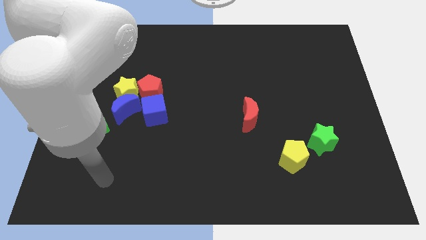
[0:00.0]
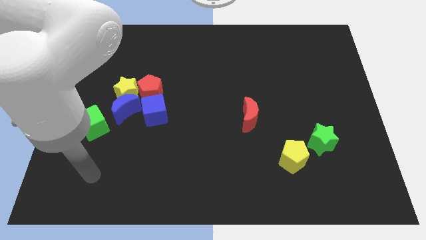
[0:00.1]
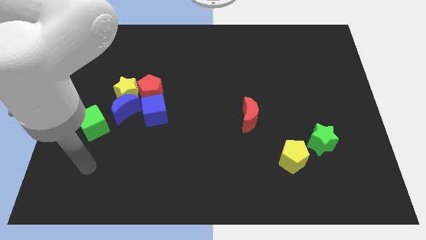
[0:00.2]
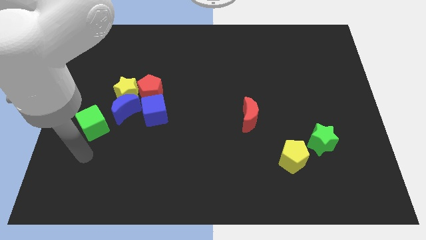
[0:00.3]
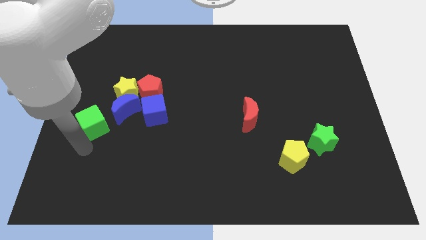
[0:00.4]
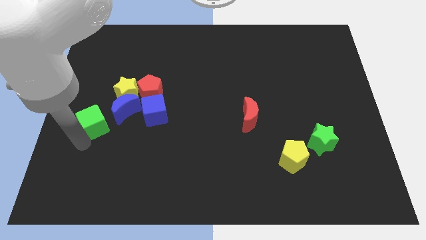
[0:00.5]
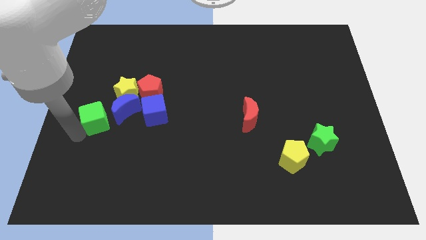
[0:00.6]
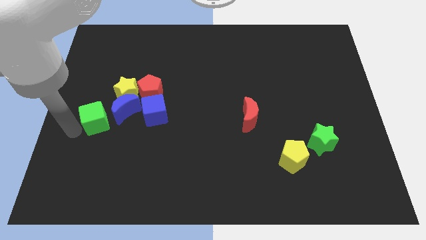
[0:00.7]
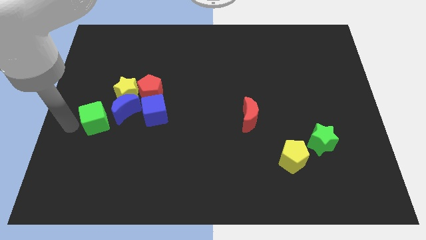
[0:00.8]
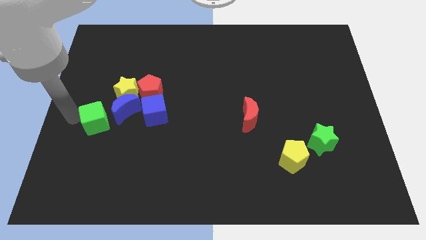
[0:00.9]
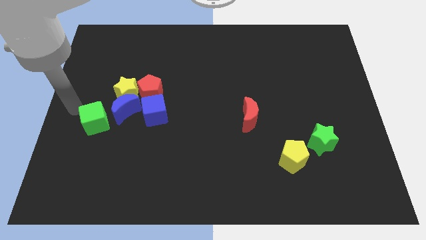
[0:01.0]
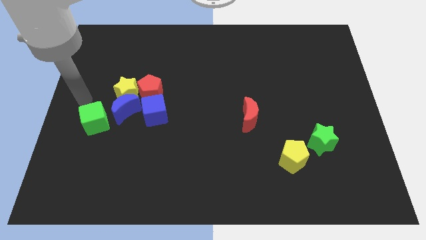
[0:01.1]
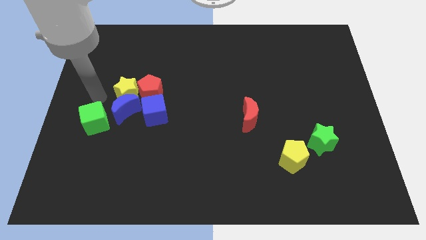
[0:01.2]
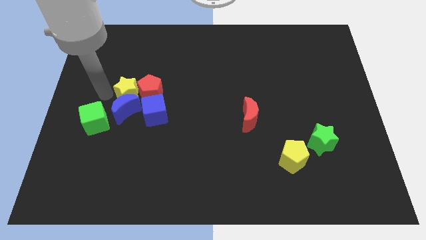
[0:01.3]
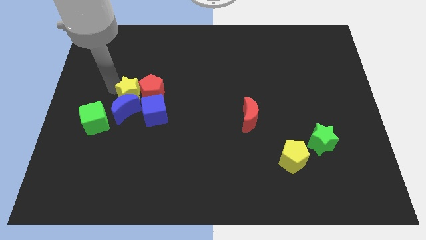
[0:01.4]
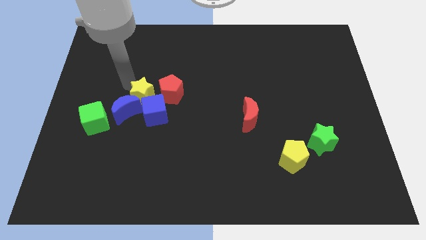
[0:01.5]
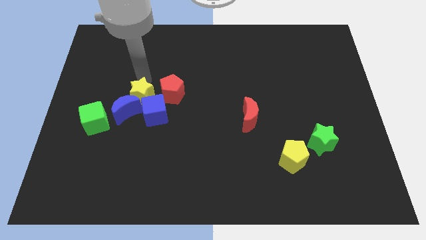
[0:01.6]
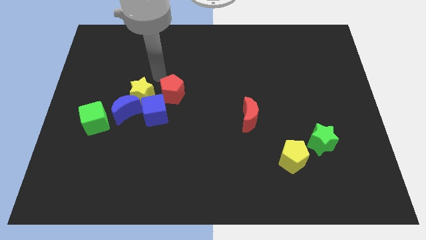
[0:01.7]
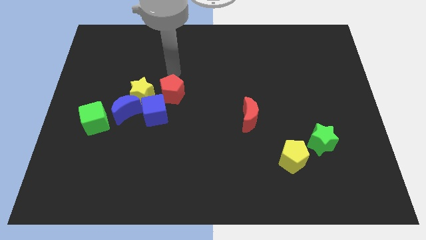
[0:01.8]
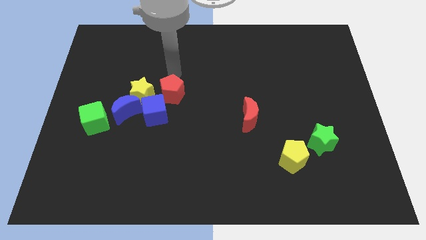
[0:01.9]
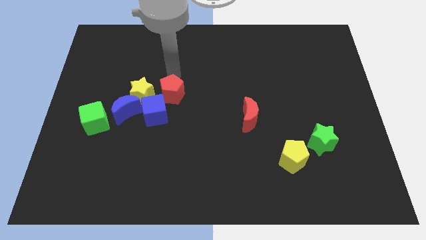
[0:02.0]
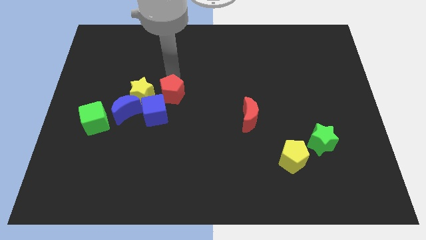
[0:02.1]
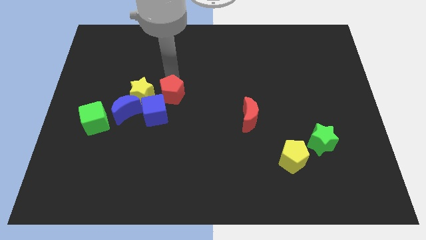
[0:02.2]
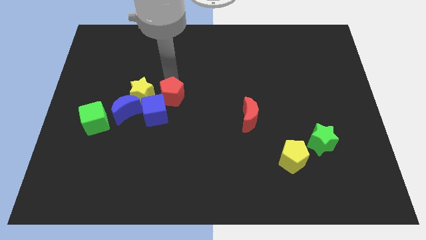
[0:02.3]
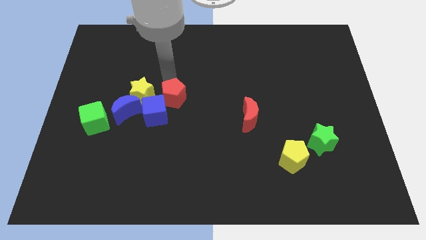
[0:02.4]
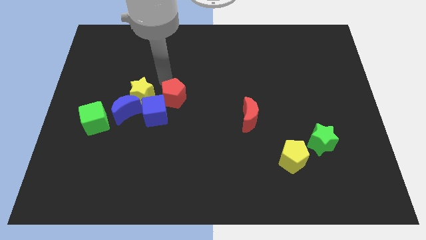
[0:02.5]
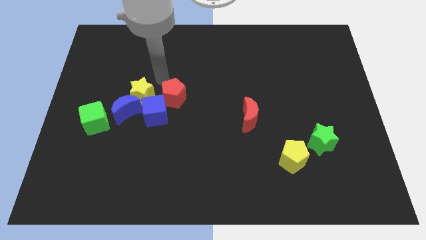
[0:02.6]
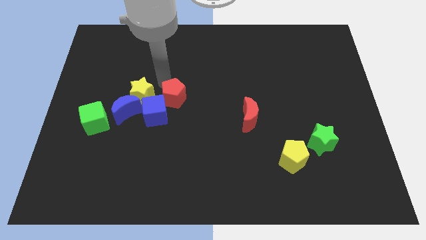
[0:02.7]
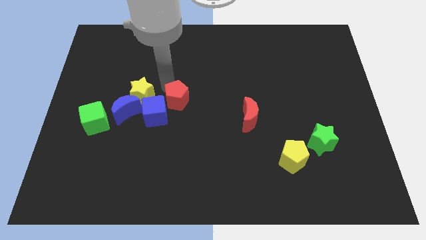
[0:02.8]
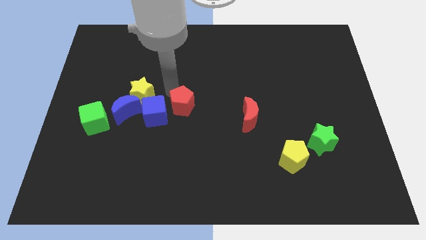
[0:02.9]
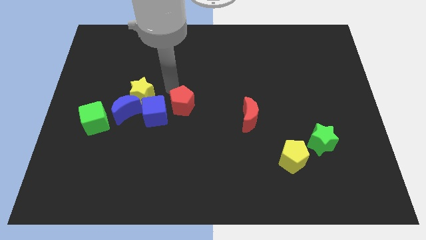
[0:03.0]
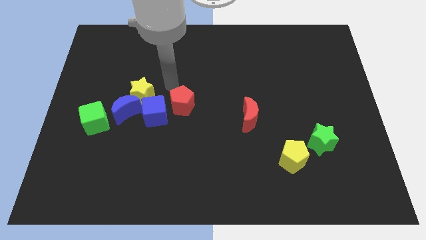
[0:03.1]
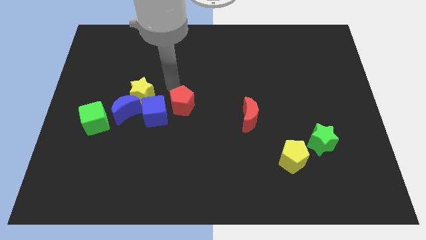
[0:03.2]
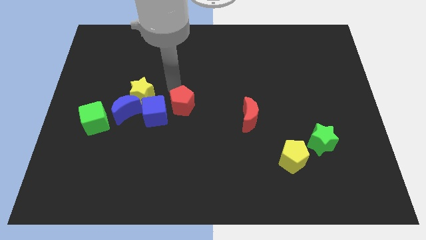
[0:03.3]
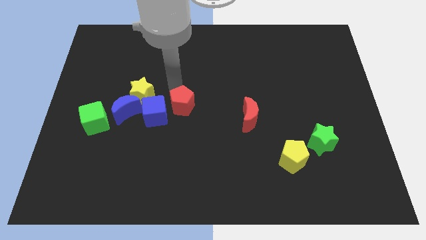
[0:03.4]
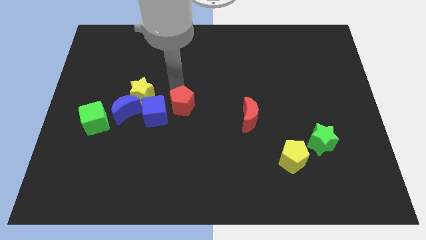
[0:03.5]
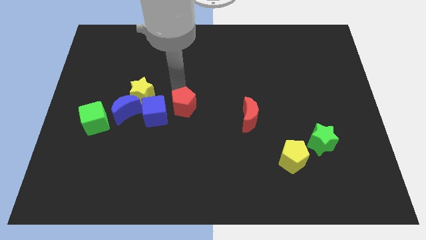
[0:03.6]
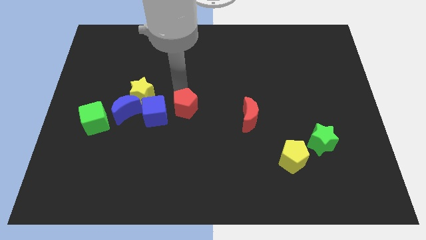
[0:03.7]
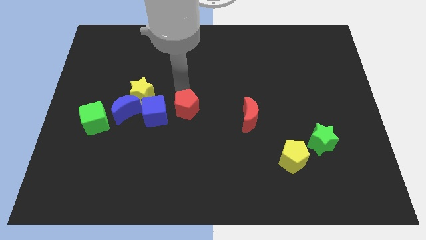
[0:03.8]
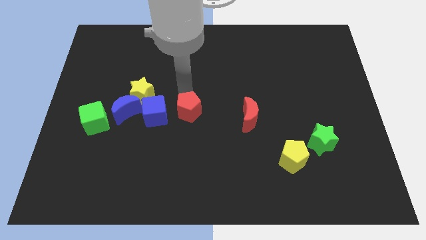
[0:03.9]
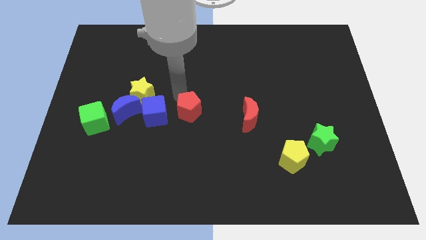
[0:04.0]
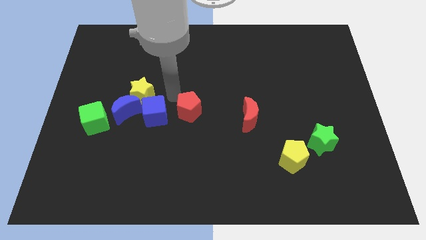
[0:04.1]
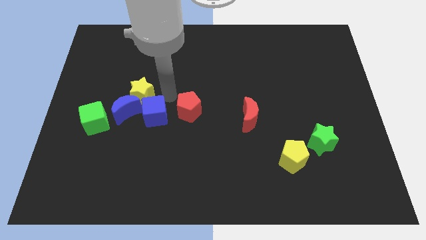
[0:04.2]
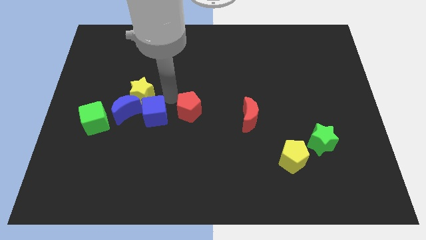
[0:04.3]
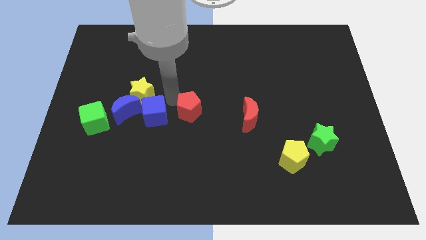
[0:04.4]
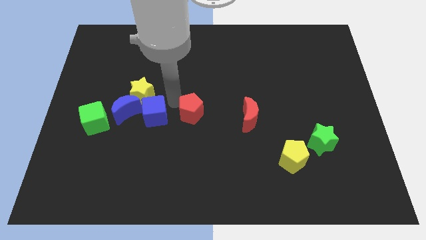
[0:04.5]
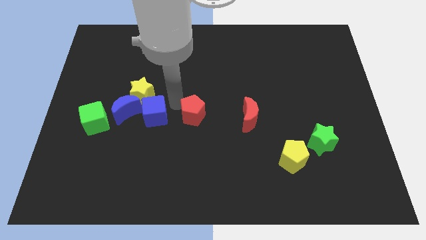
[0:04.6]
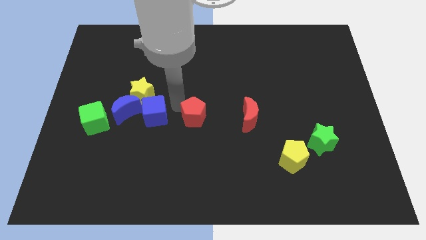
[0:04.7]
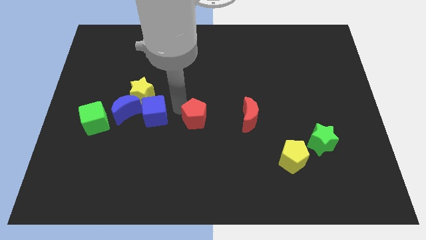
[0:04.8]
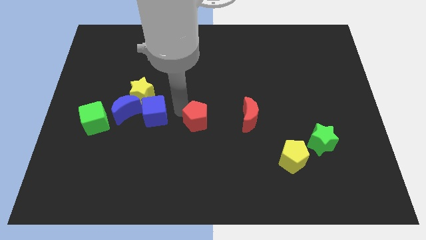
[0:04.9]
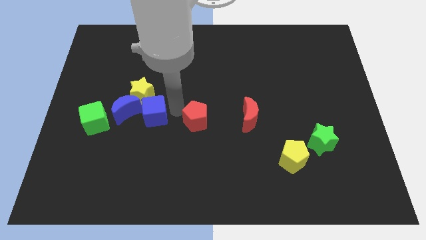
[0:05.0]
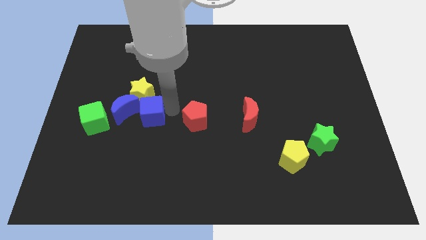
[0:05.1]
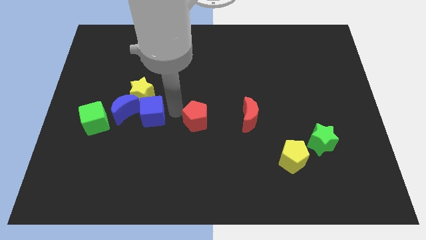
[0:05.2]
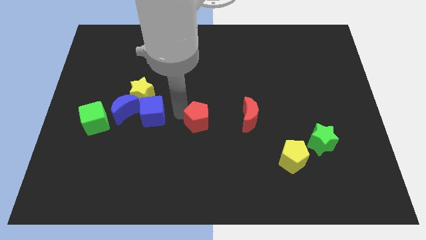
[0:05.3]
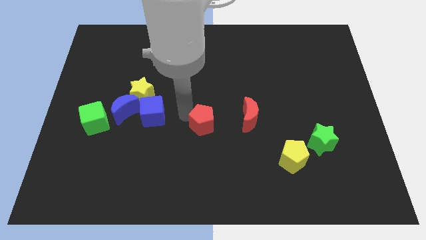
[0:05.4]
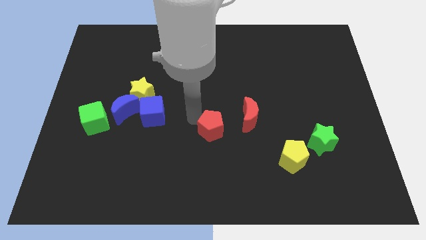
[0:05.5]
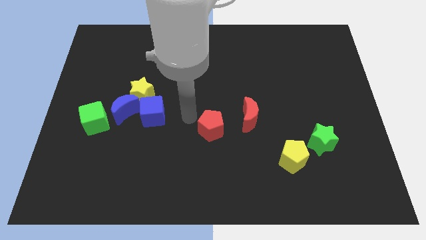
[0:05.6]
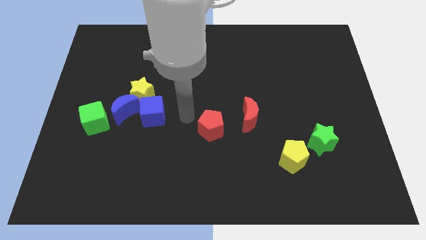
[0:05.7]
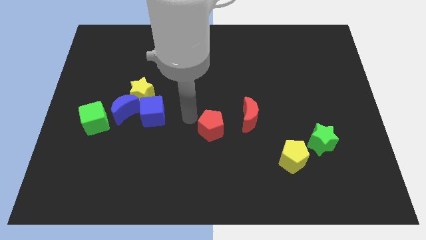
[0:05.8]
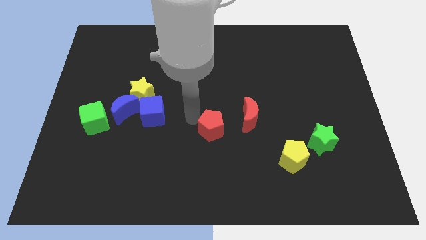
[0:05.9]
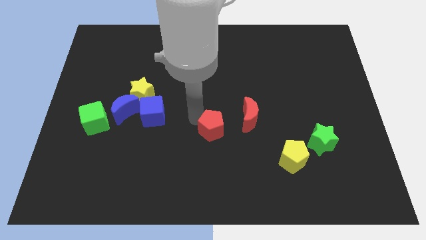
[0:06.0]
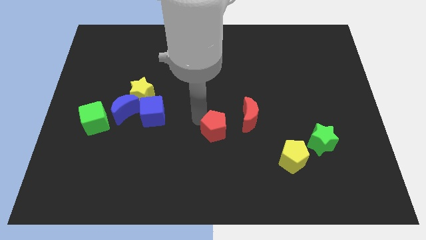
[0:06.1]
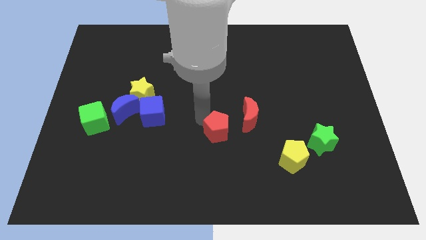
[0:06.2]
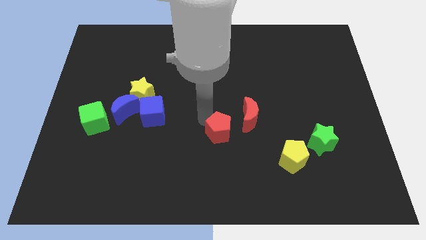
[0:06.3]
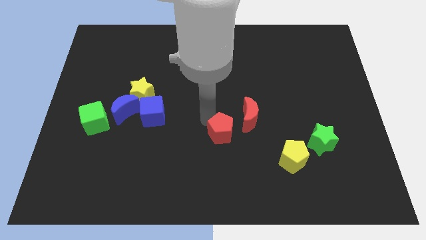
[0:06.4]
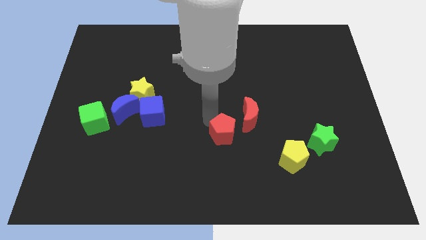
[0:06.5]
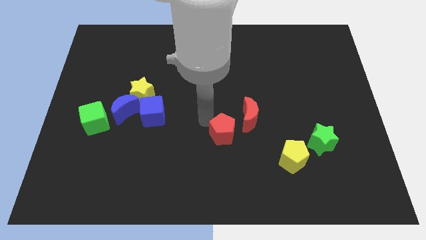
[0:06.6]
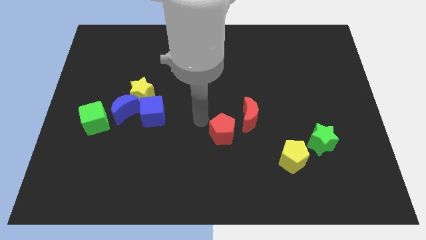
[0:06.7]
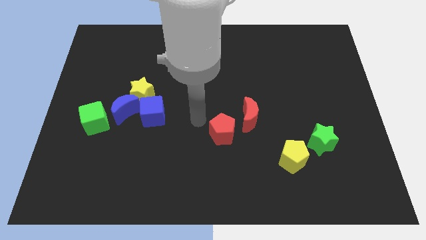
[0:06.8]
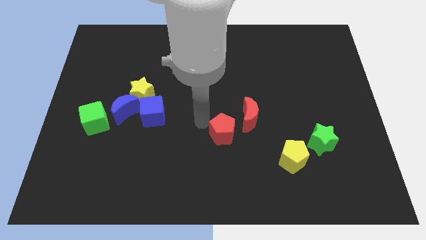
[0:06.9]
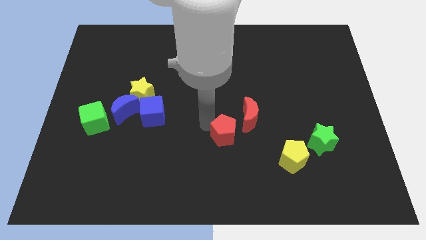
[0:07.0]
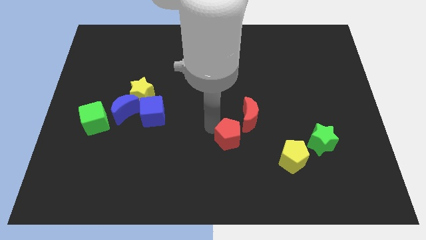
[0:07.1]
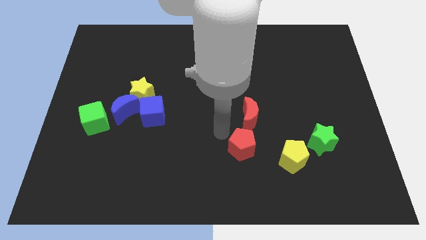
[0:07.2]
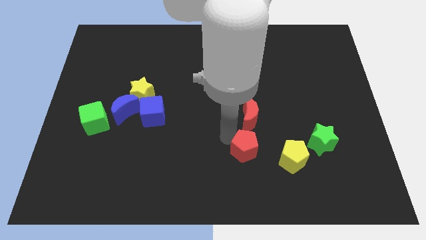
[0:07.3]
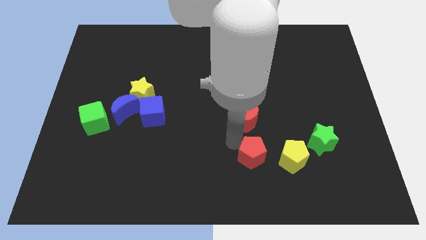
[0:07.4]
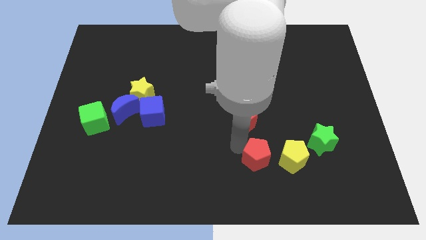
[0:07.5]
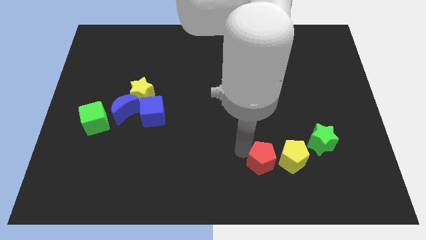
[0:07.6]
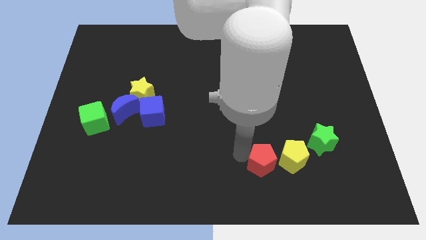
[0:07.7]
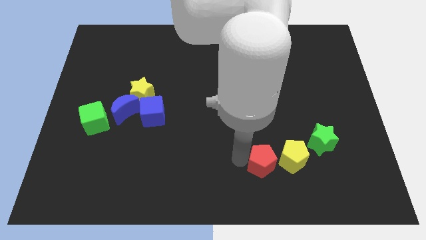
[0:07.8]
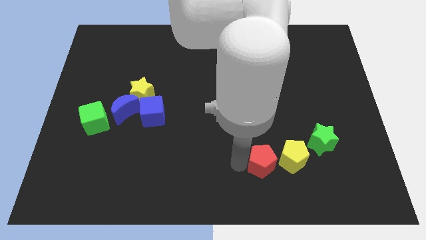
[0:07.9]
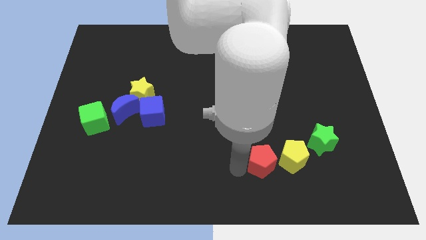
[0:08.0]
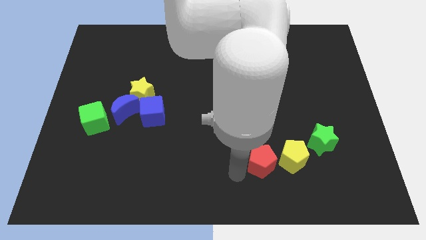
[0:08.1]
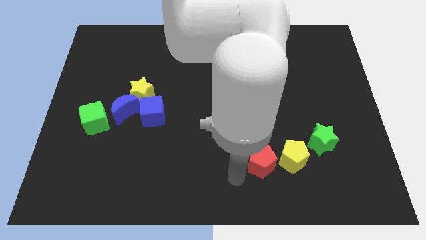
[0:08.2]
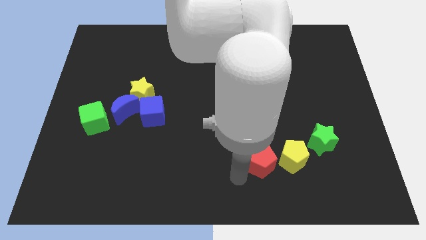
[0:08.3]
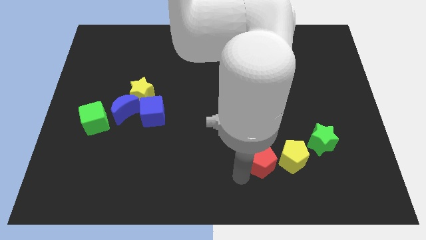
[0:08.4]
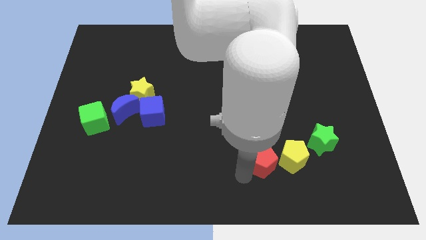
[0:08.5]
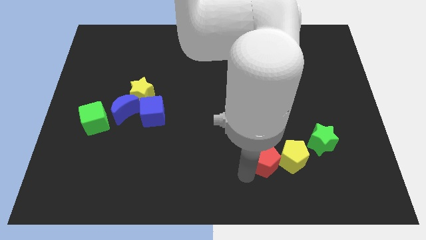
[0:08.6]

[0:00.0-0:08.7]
put the red pentagon next to the yellow pentagon
